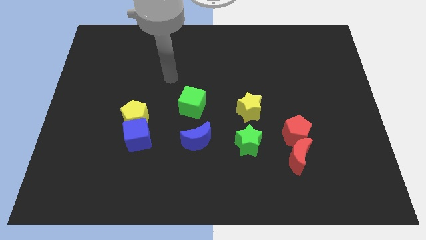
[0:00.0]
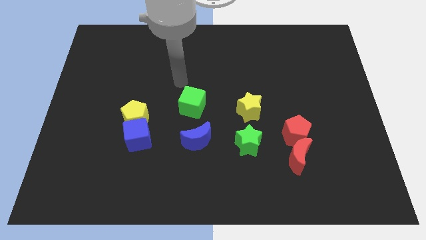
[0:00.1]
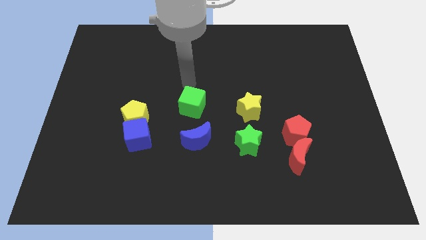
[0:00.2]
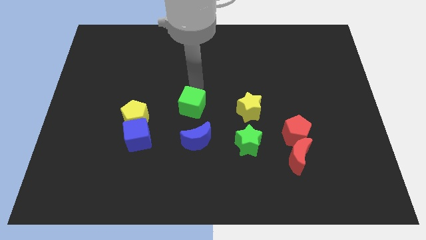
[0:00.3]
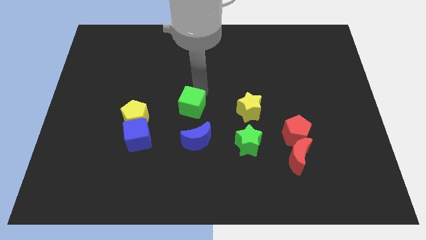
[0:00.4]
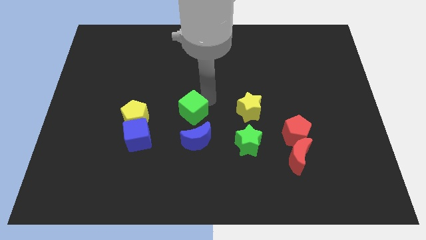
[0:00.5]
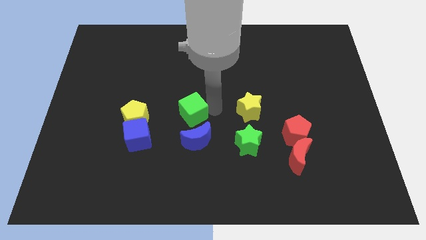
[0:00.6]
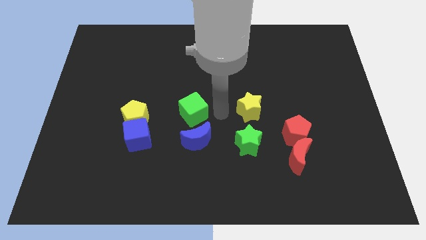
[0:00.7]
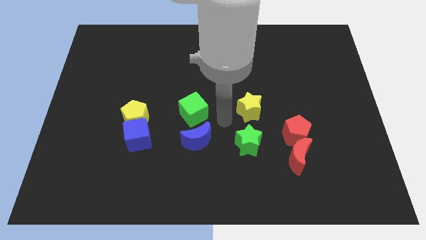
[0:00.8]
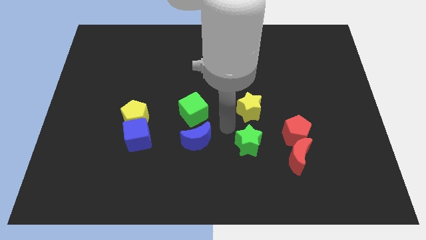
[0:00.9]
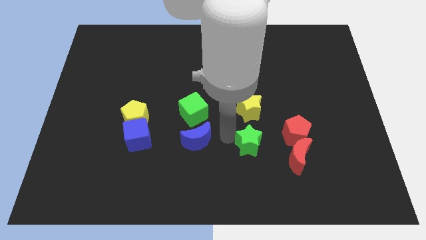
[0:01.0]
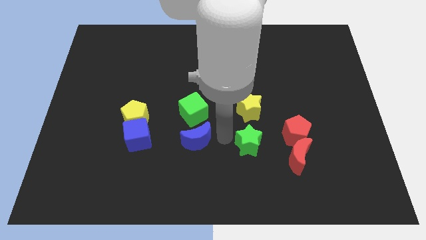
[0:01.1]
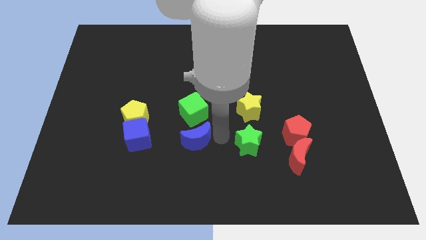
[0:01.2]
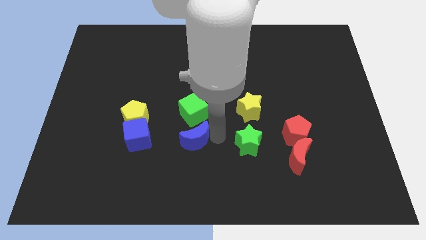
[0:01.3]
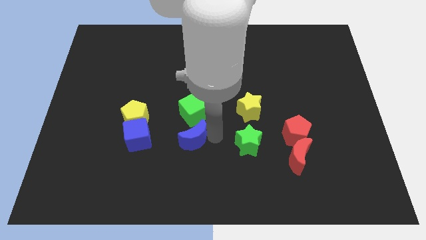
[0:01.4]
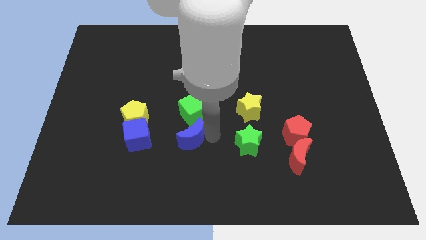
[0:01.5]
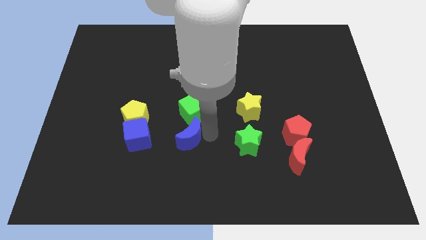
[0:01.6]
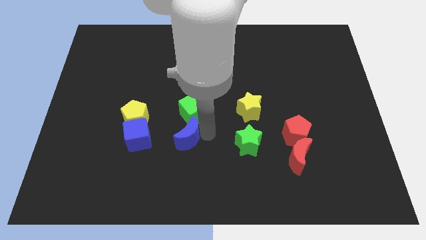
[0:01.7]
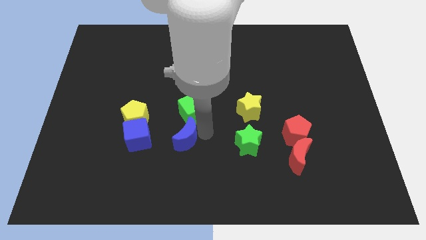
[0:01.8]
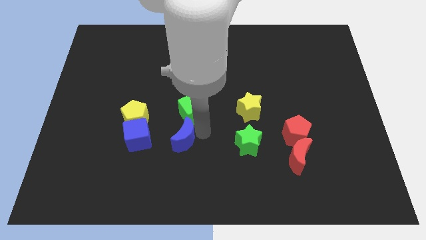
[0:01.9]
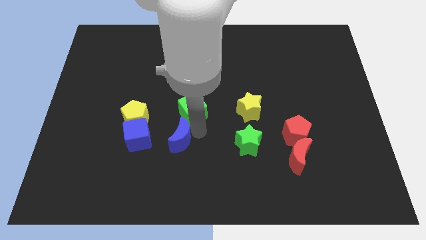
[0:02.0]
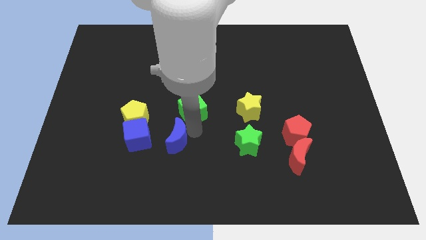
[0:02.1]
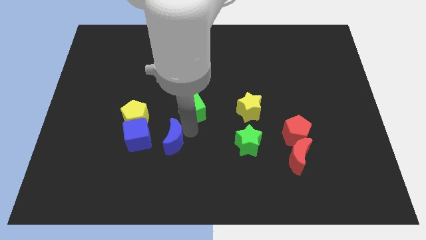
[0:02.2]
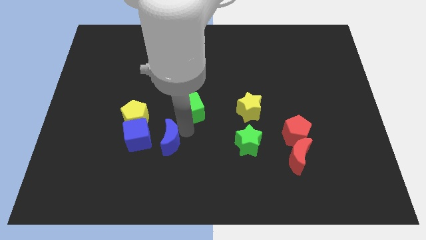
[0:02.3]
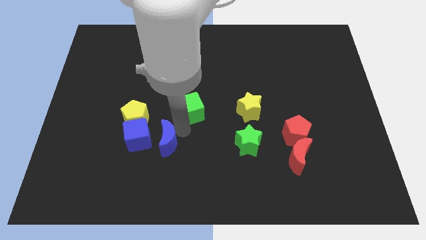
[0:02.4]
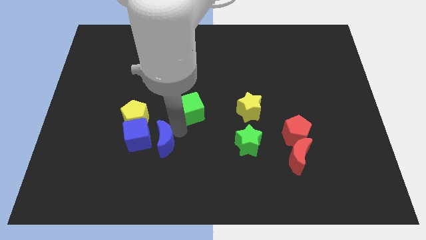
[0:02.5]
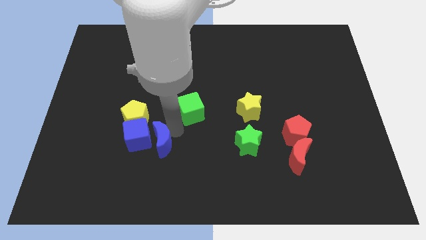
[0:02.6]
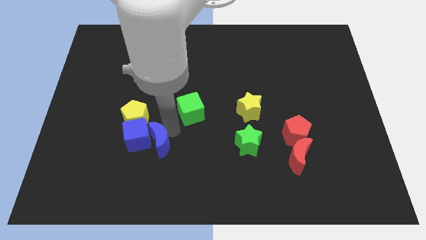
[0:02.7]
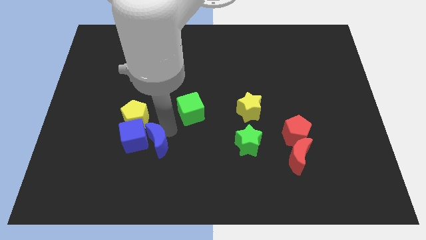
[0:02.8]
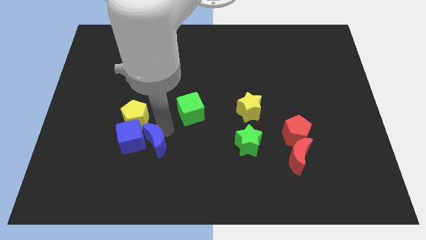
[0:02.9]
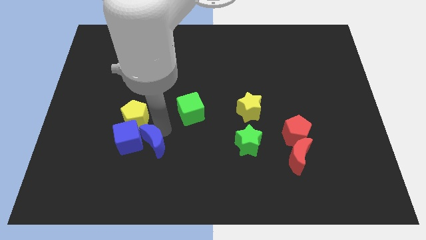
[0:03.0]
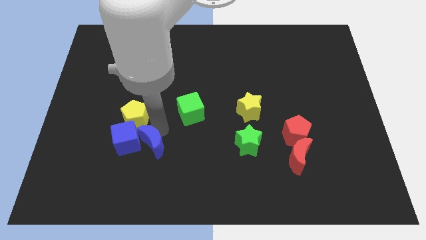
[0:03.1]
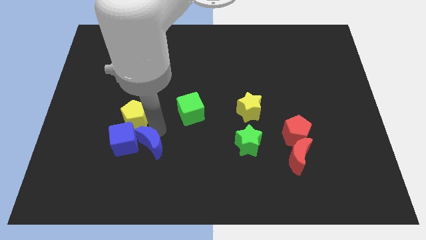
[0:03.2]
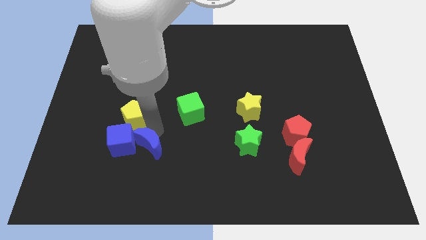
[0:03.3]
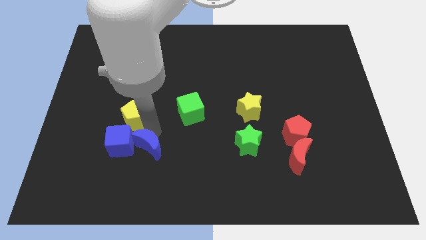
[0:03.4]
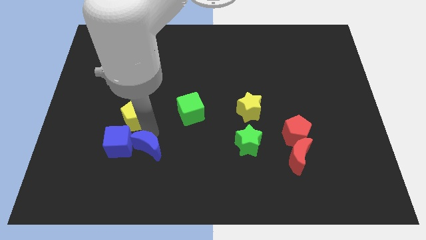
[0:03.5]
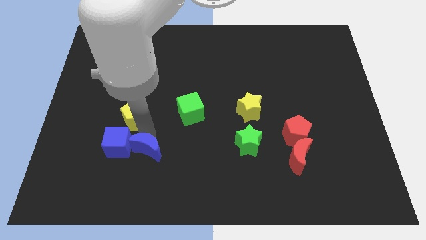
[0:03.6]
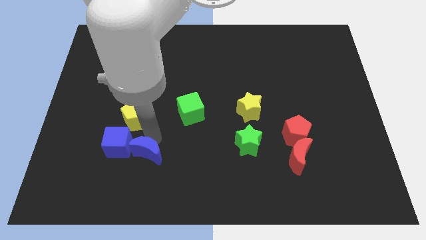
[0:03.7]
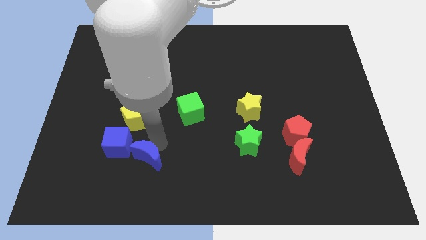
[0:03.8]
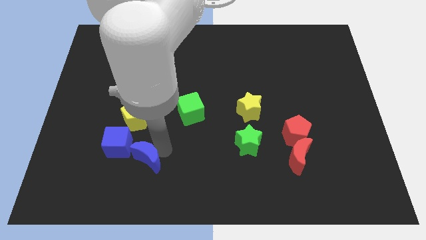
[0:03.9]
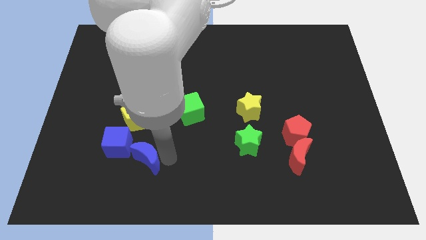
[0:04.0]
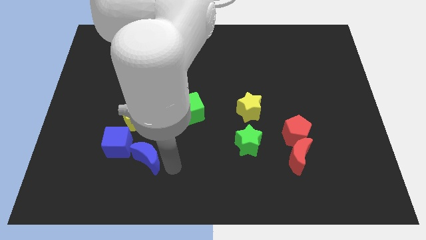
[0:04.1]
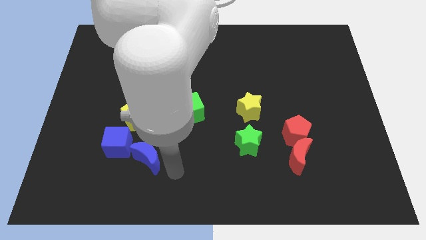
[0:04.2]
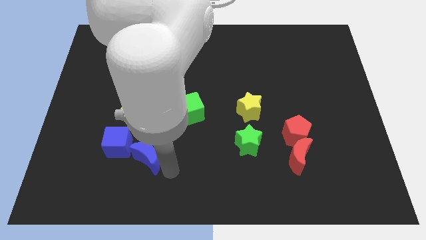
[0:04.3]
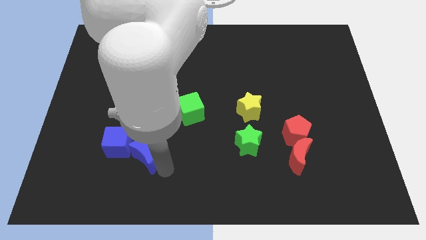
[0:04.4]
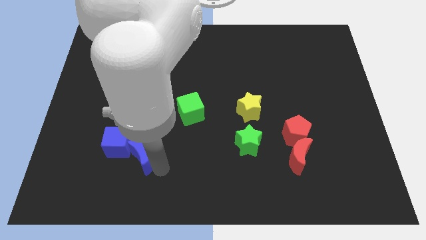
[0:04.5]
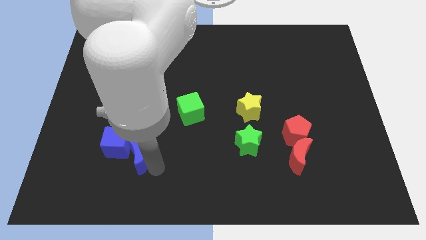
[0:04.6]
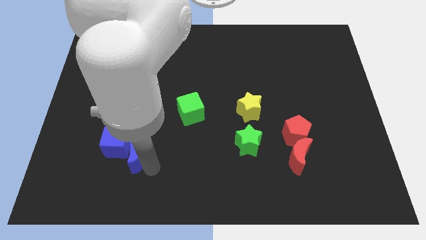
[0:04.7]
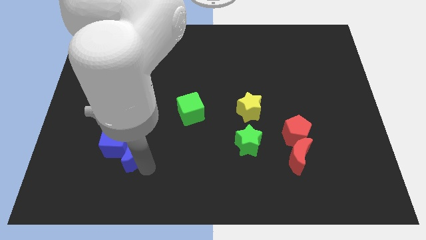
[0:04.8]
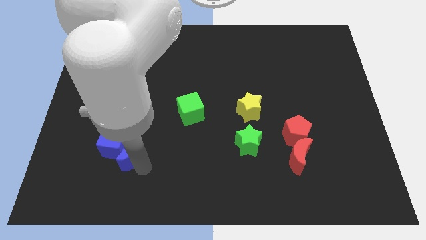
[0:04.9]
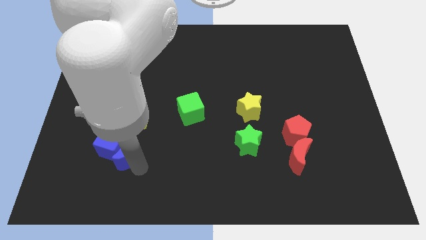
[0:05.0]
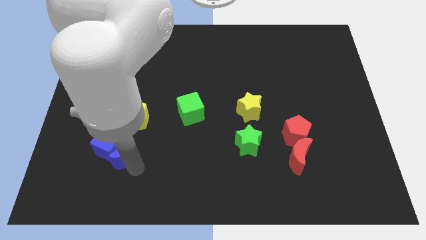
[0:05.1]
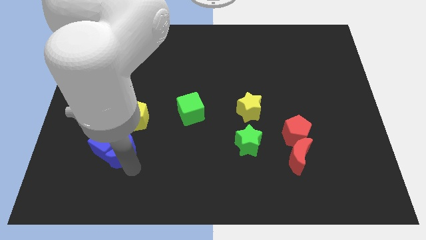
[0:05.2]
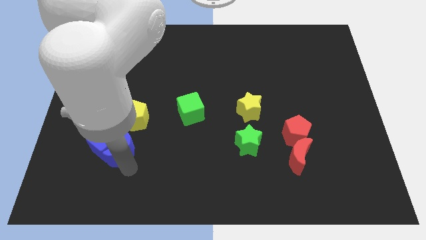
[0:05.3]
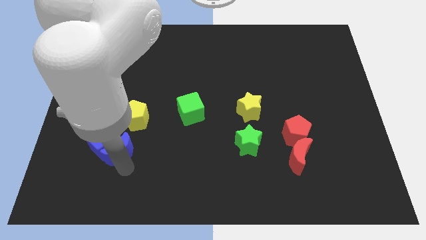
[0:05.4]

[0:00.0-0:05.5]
move the blue moon to the bottom left of the yellow pentagon

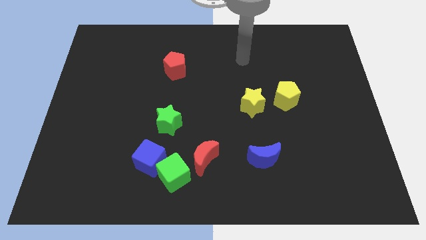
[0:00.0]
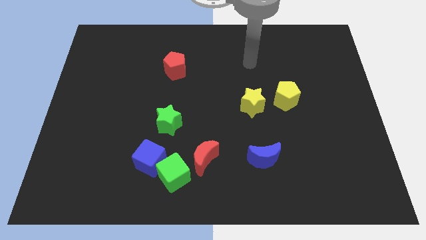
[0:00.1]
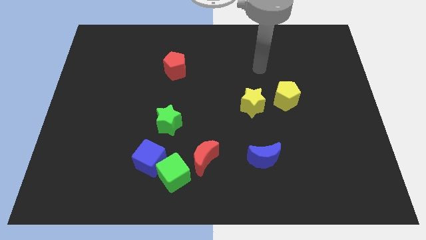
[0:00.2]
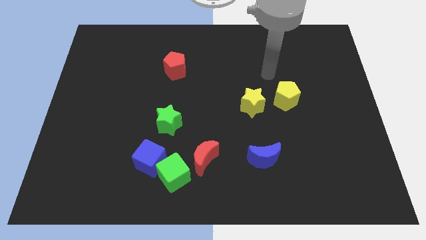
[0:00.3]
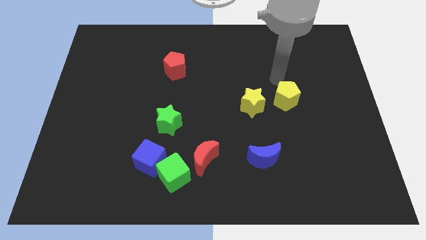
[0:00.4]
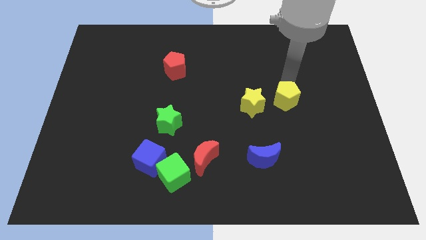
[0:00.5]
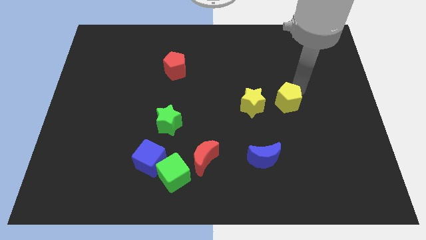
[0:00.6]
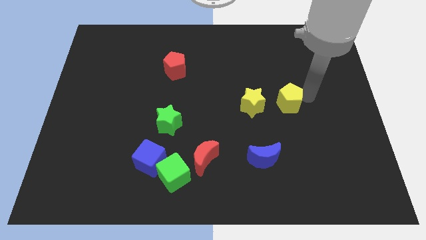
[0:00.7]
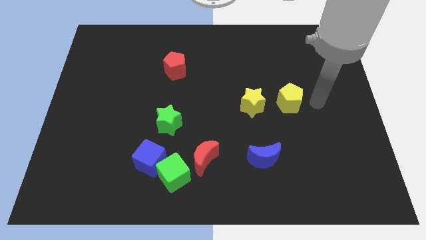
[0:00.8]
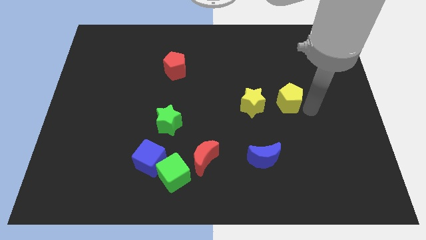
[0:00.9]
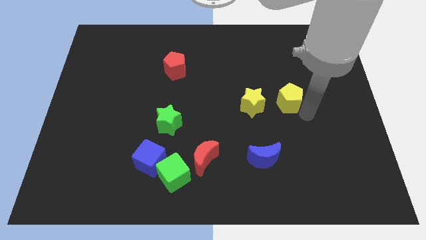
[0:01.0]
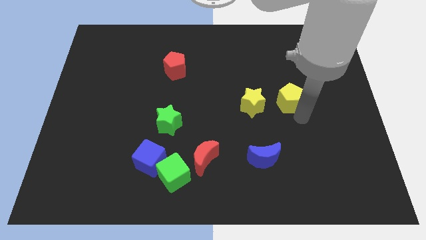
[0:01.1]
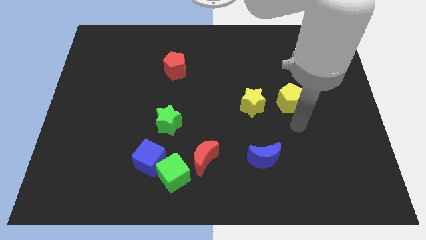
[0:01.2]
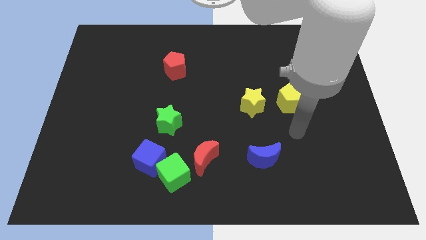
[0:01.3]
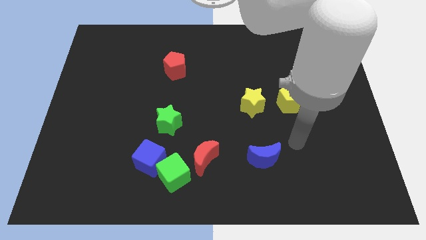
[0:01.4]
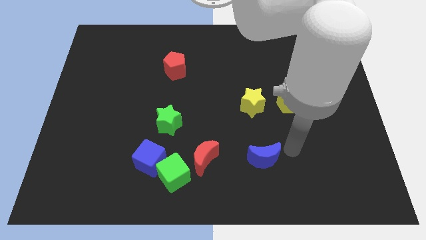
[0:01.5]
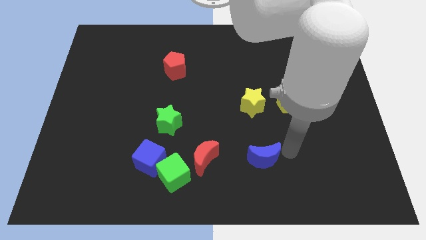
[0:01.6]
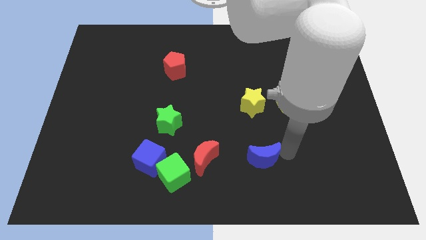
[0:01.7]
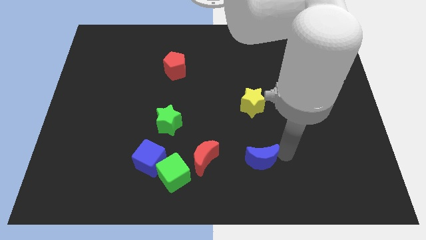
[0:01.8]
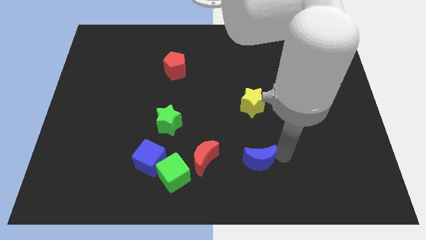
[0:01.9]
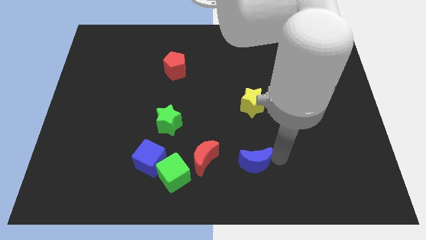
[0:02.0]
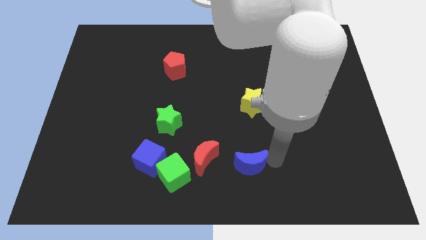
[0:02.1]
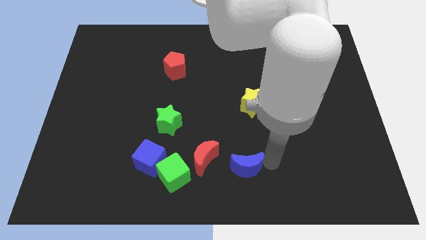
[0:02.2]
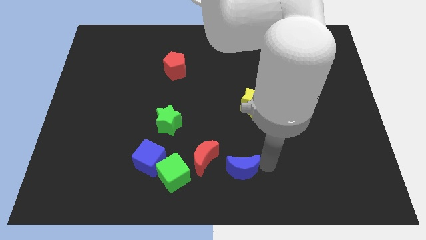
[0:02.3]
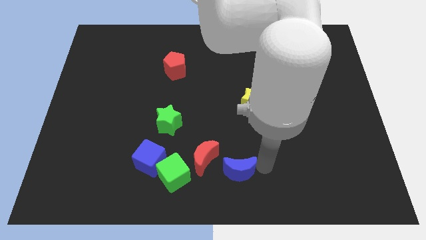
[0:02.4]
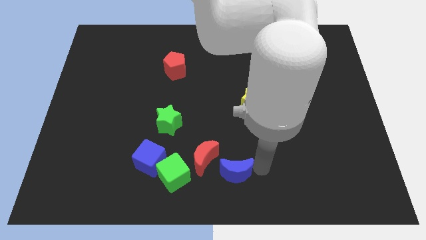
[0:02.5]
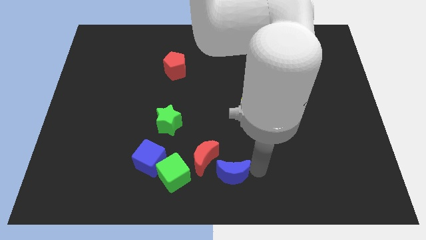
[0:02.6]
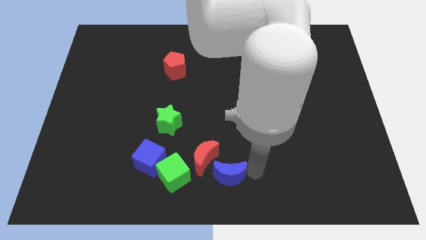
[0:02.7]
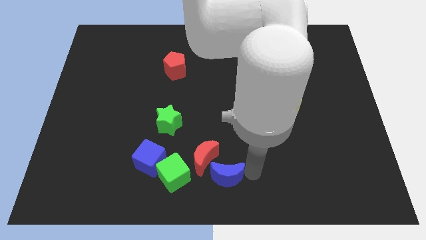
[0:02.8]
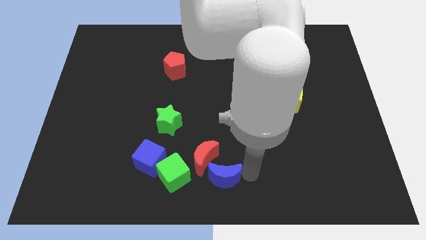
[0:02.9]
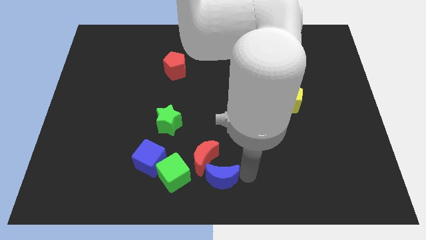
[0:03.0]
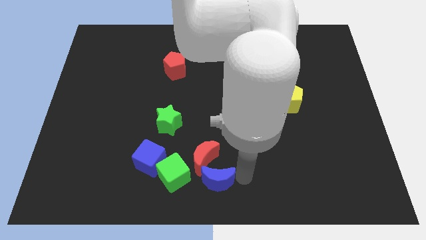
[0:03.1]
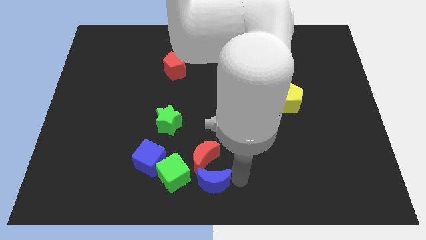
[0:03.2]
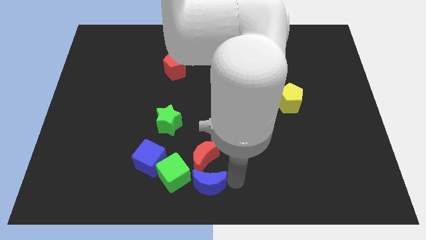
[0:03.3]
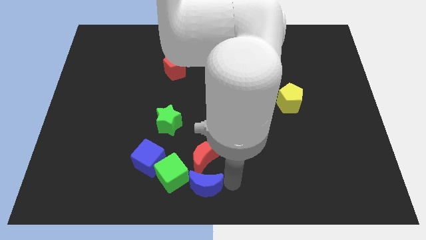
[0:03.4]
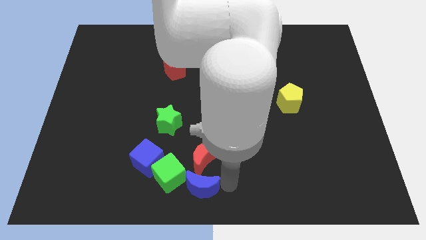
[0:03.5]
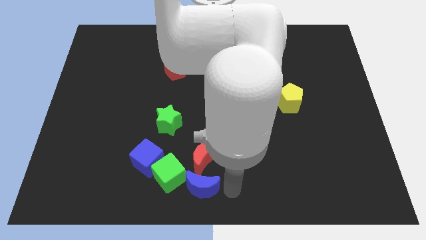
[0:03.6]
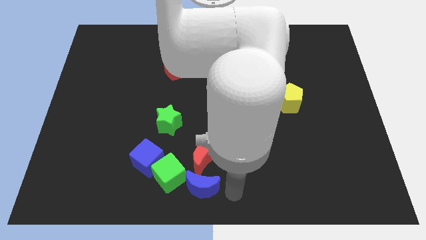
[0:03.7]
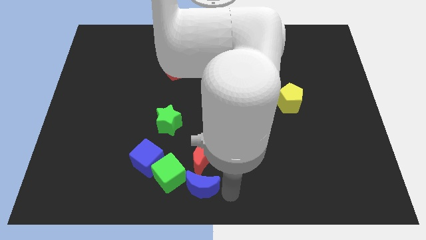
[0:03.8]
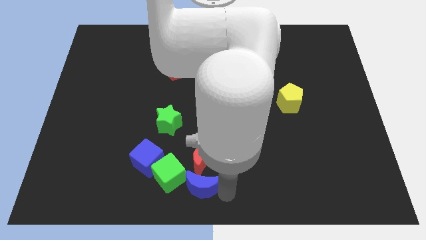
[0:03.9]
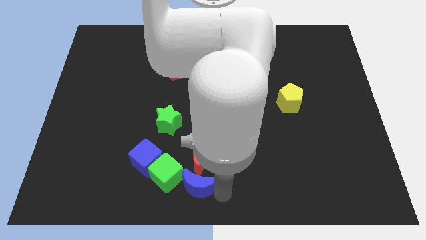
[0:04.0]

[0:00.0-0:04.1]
slide the blue moon to the bottom right of the blue cube
